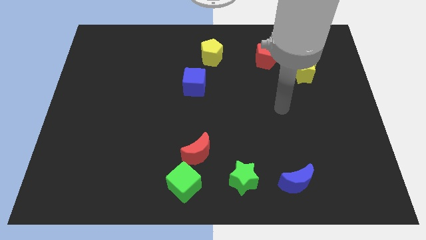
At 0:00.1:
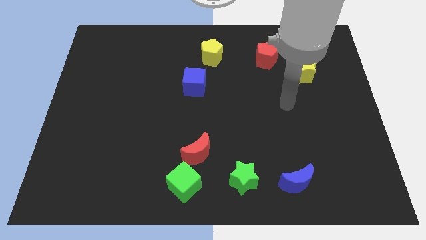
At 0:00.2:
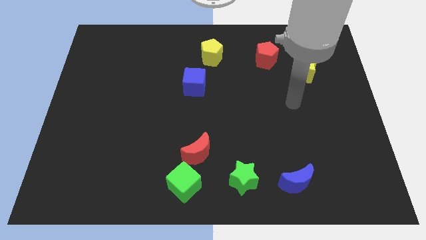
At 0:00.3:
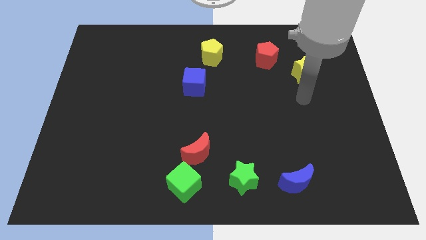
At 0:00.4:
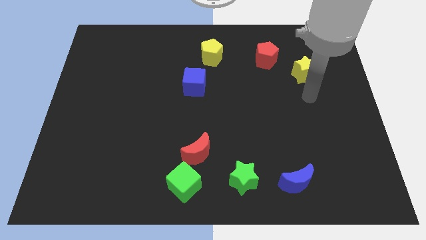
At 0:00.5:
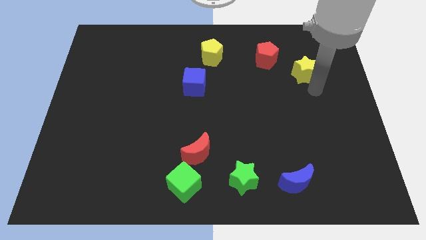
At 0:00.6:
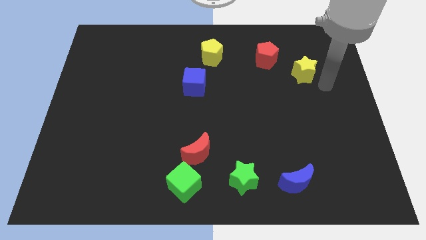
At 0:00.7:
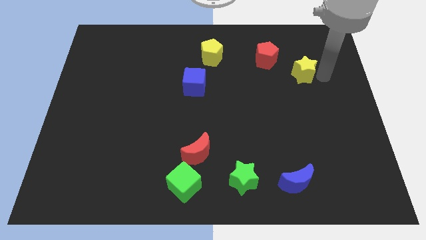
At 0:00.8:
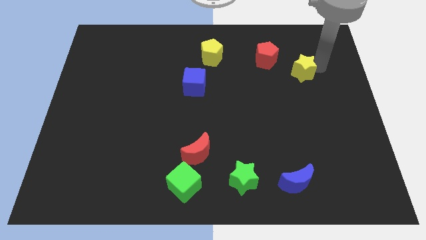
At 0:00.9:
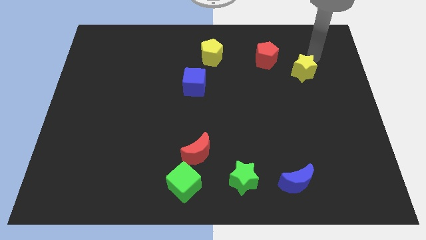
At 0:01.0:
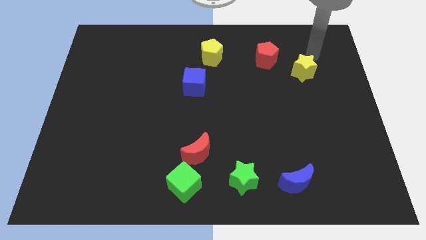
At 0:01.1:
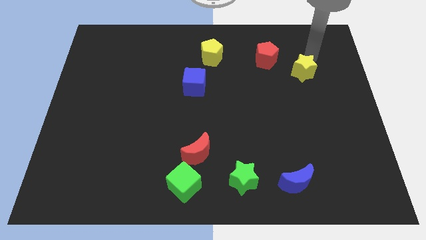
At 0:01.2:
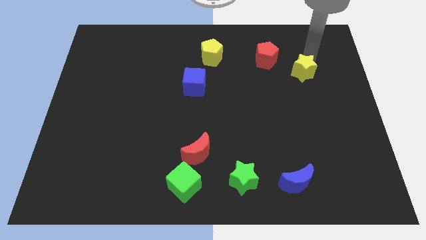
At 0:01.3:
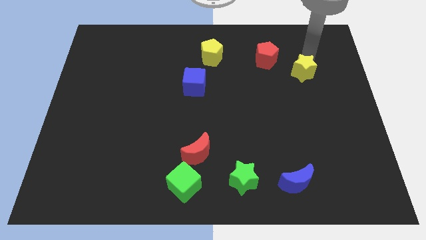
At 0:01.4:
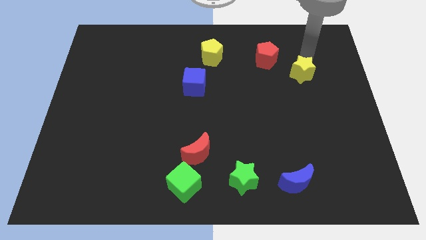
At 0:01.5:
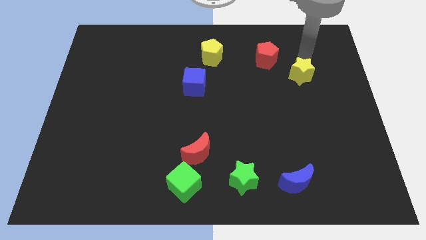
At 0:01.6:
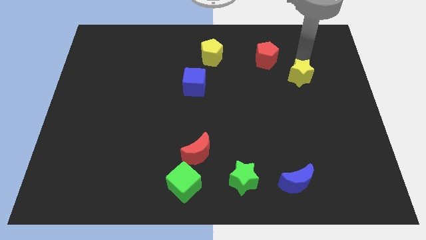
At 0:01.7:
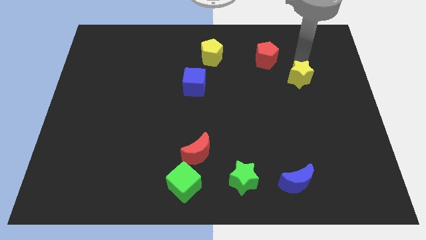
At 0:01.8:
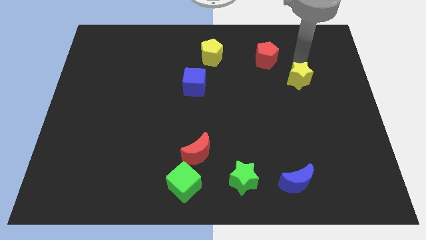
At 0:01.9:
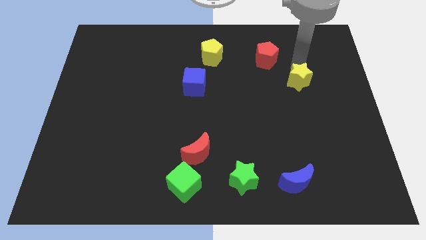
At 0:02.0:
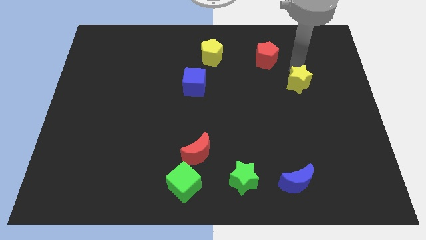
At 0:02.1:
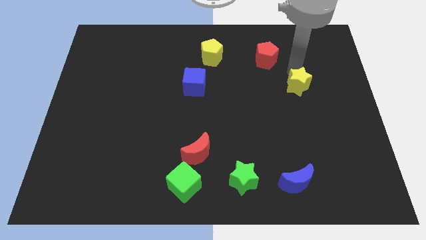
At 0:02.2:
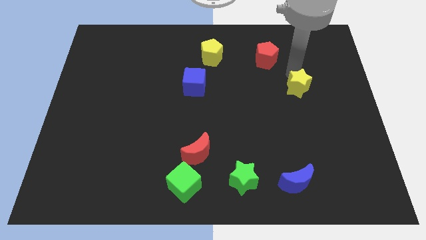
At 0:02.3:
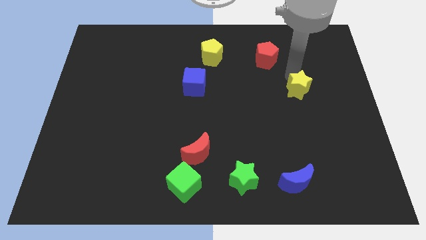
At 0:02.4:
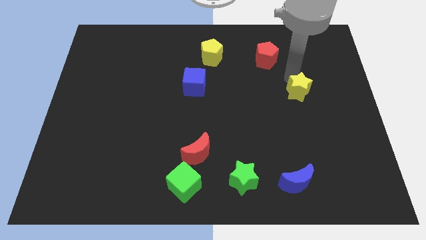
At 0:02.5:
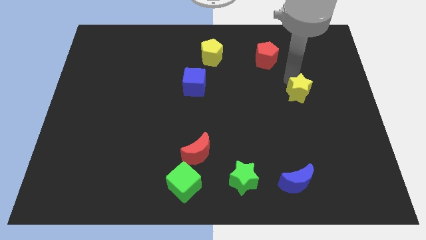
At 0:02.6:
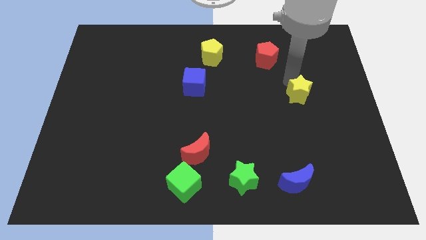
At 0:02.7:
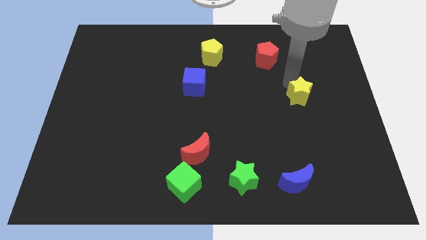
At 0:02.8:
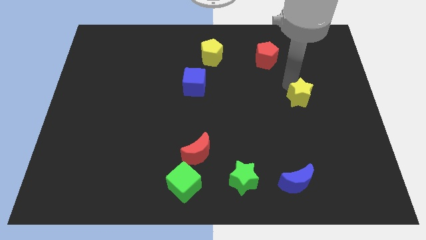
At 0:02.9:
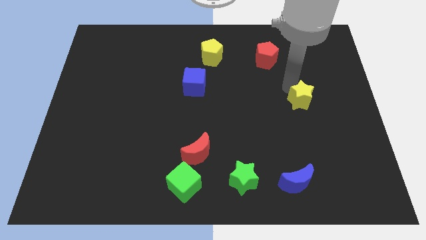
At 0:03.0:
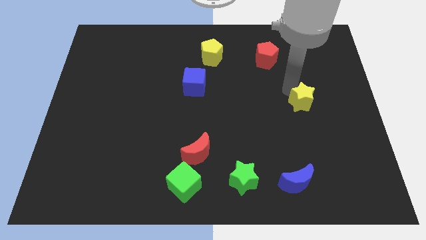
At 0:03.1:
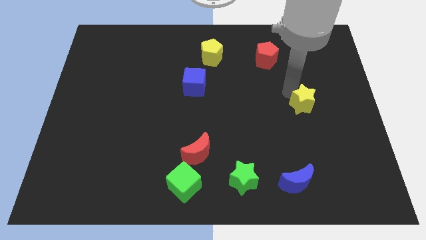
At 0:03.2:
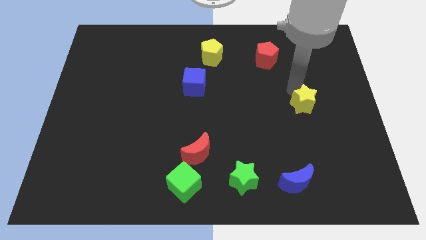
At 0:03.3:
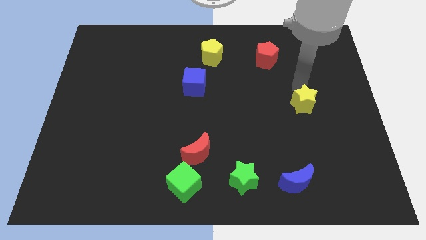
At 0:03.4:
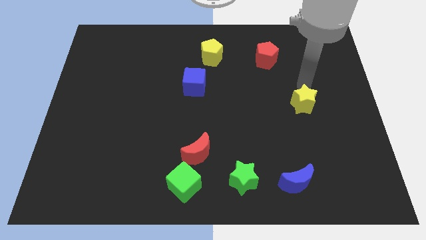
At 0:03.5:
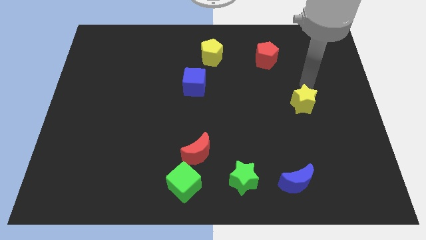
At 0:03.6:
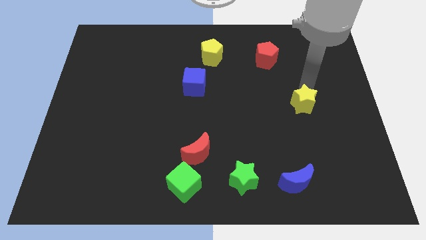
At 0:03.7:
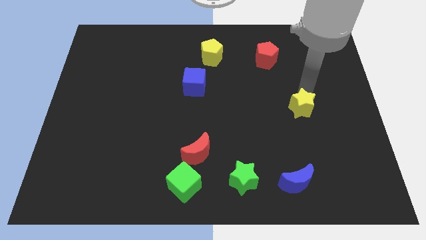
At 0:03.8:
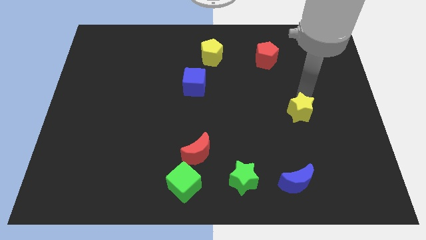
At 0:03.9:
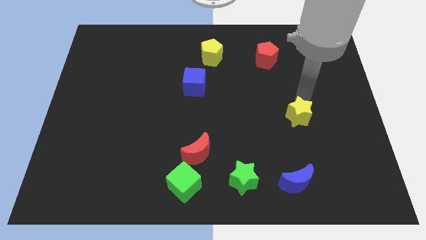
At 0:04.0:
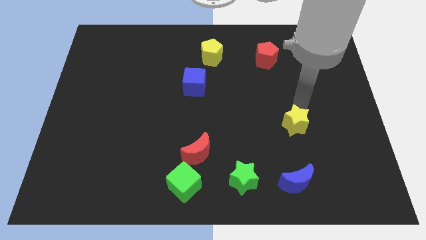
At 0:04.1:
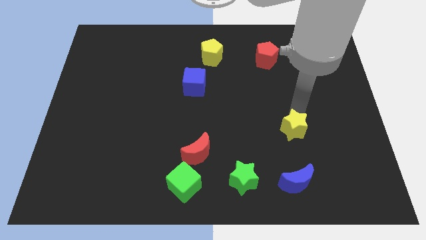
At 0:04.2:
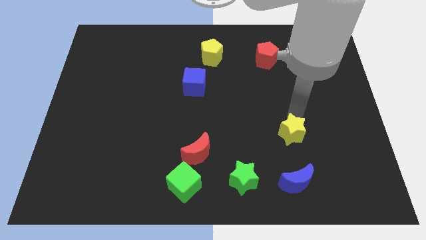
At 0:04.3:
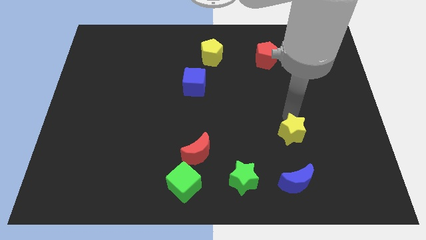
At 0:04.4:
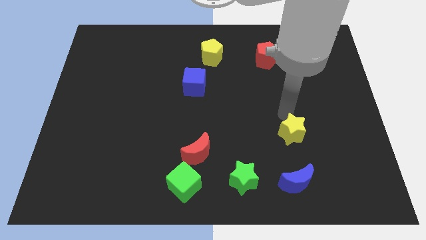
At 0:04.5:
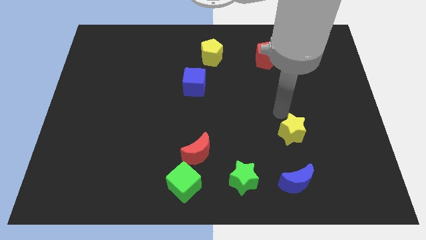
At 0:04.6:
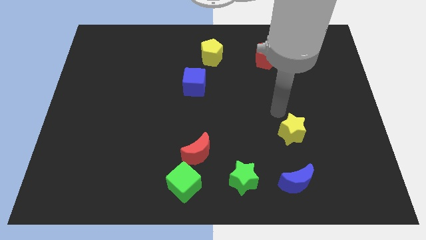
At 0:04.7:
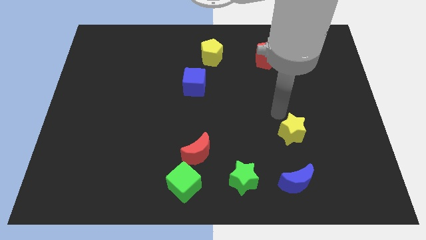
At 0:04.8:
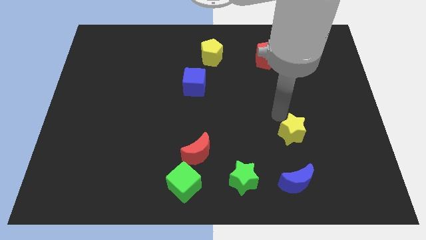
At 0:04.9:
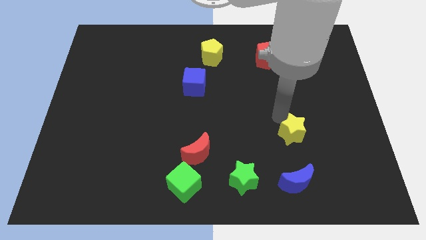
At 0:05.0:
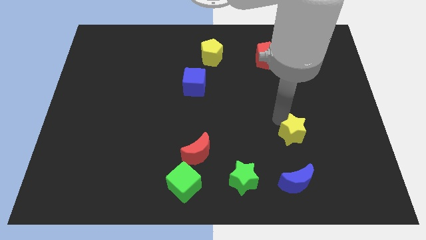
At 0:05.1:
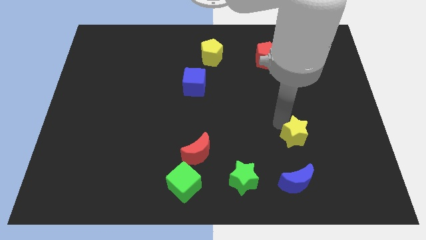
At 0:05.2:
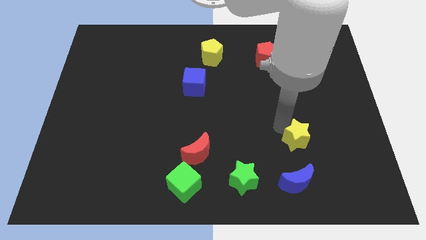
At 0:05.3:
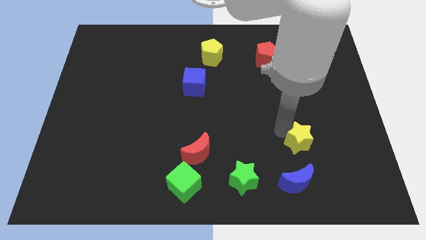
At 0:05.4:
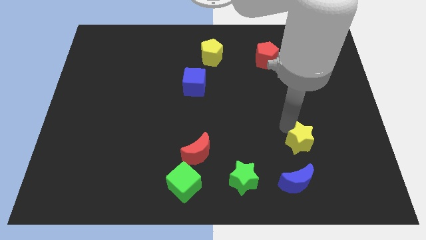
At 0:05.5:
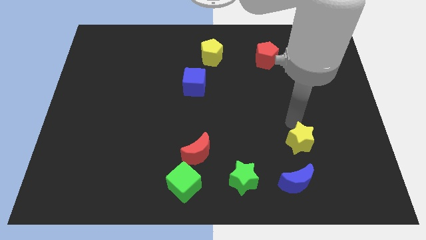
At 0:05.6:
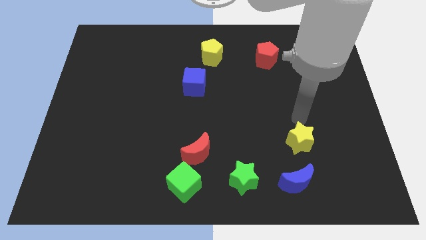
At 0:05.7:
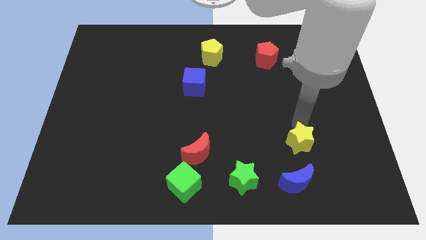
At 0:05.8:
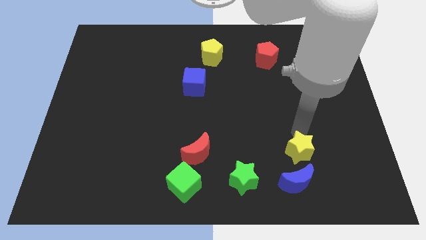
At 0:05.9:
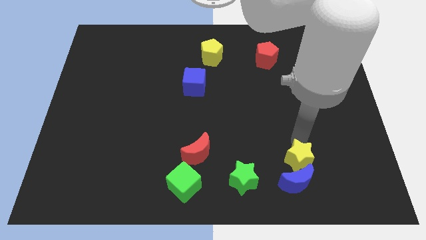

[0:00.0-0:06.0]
put the yellow star towards the blue moon

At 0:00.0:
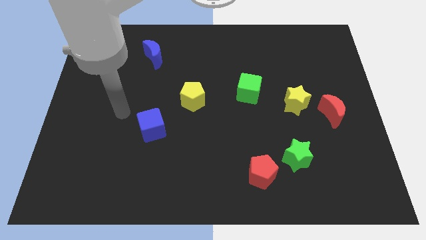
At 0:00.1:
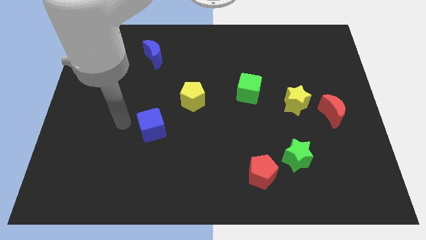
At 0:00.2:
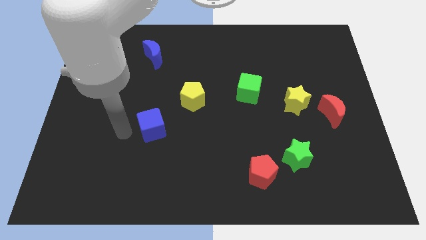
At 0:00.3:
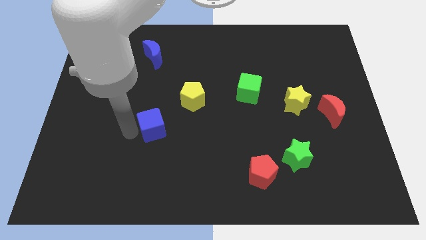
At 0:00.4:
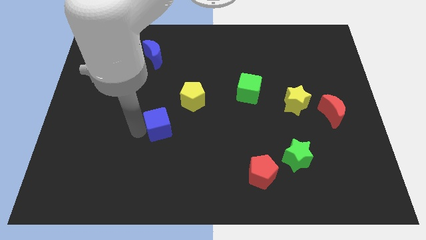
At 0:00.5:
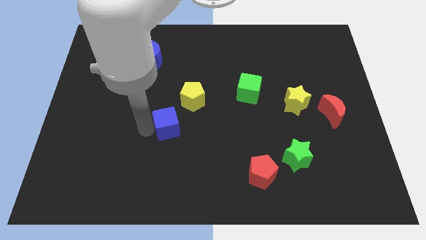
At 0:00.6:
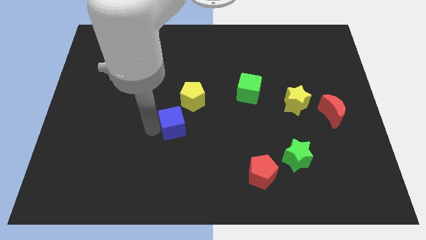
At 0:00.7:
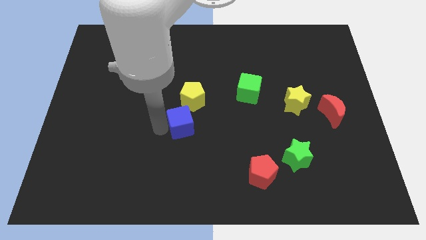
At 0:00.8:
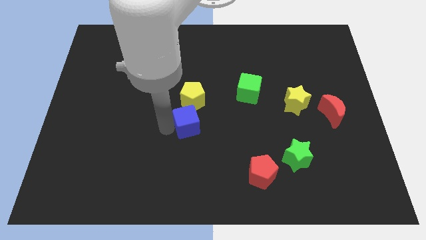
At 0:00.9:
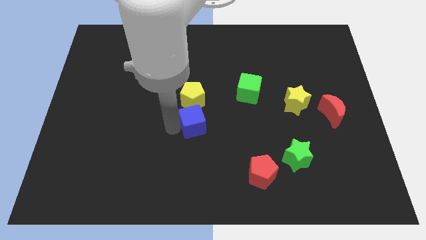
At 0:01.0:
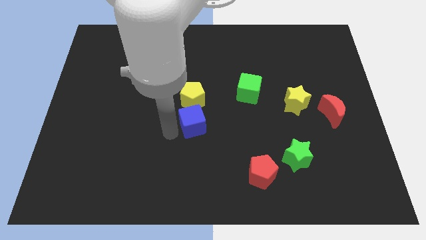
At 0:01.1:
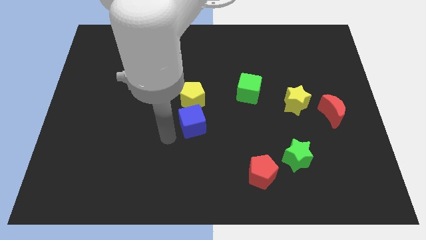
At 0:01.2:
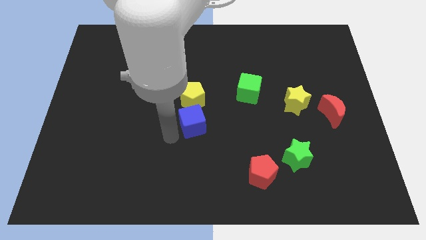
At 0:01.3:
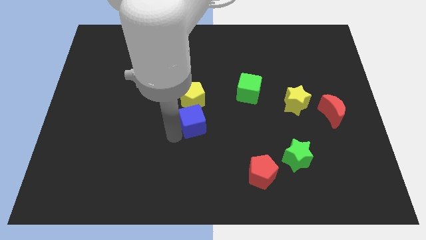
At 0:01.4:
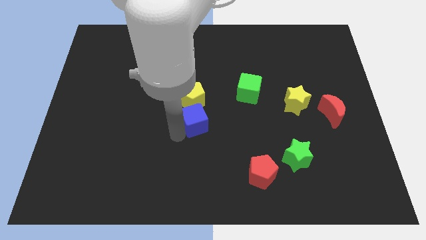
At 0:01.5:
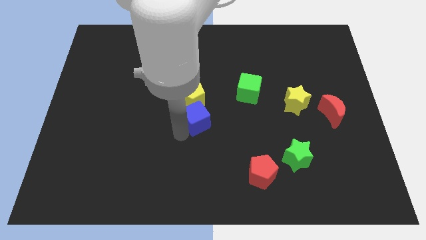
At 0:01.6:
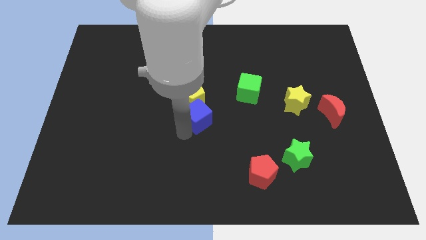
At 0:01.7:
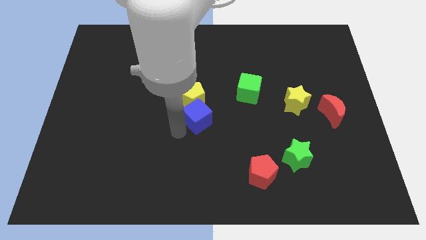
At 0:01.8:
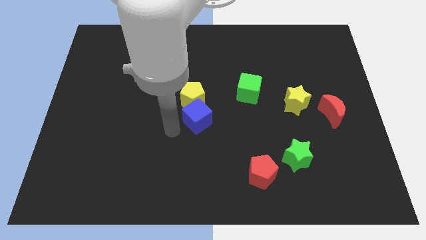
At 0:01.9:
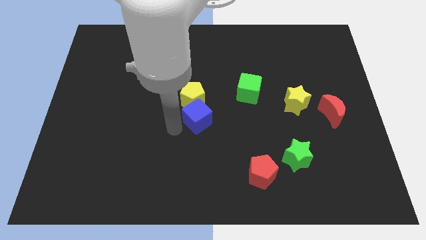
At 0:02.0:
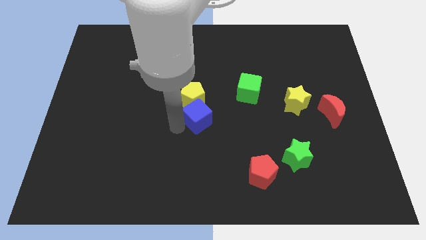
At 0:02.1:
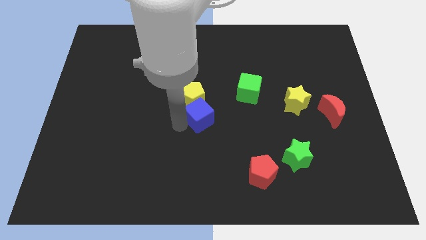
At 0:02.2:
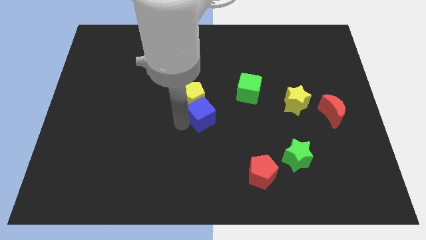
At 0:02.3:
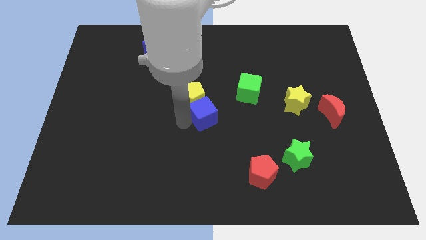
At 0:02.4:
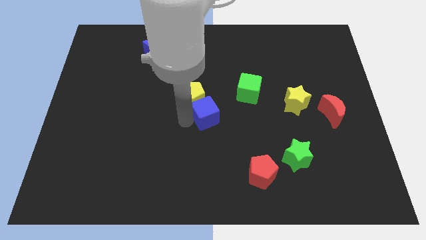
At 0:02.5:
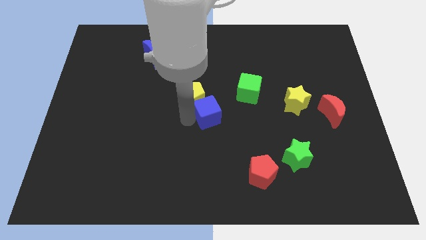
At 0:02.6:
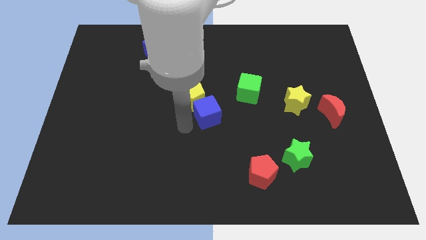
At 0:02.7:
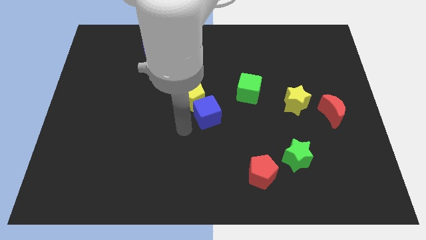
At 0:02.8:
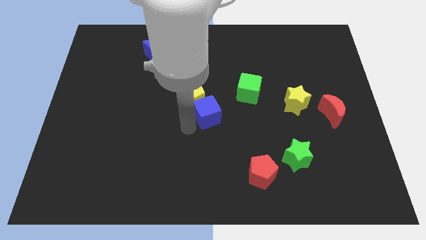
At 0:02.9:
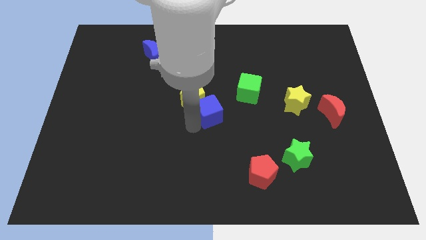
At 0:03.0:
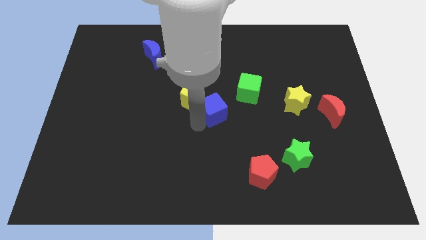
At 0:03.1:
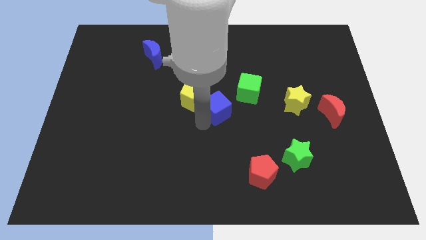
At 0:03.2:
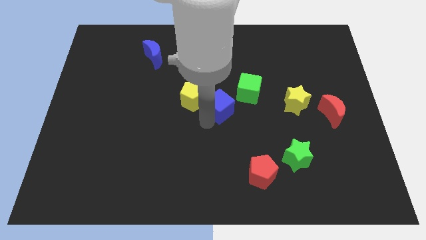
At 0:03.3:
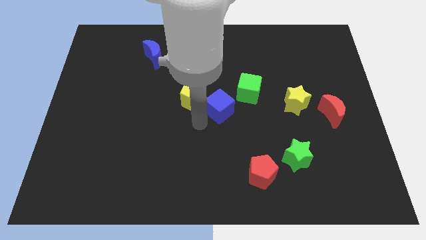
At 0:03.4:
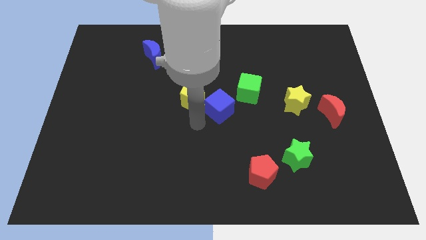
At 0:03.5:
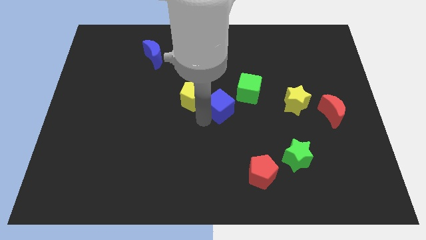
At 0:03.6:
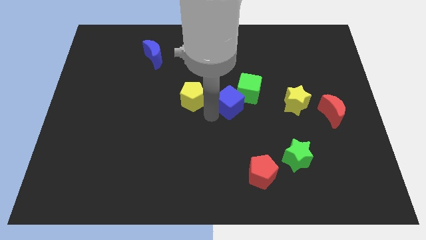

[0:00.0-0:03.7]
push the blue cube to the green cube
